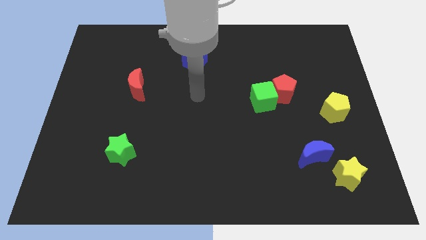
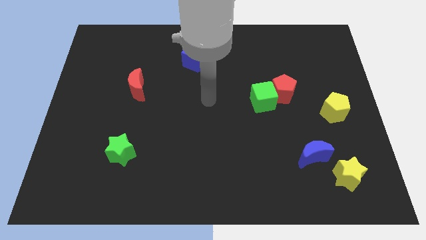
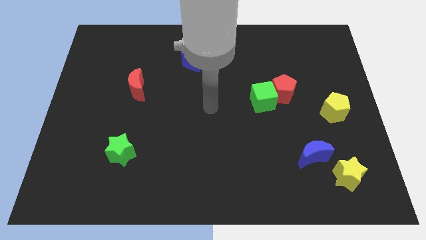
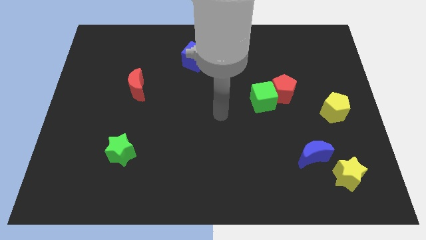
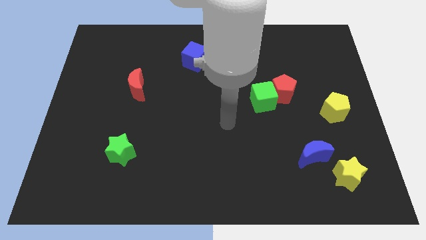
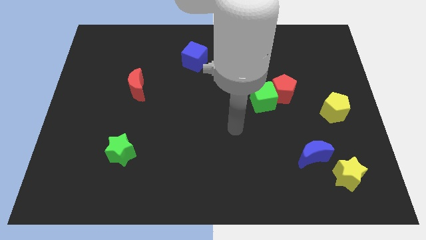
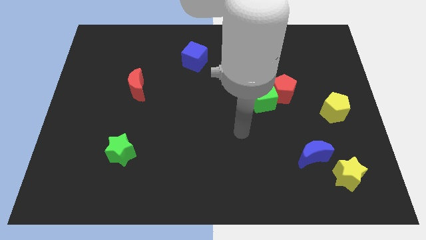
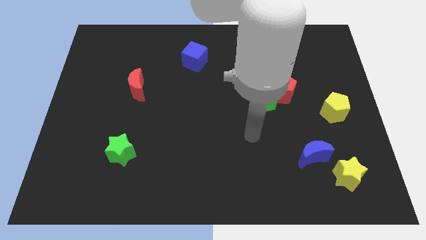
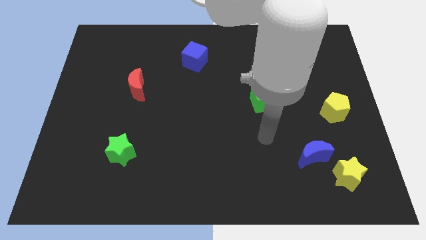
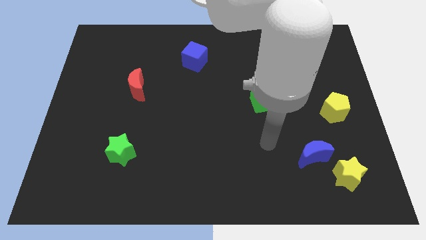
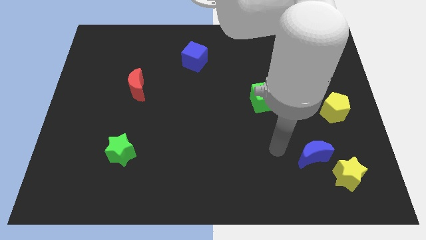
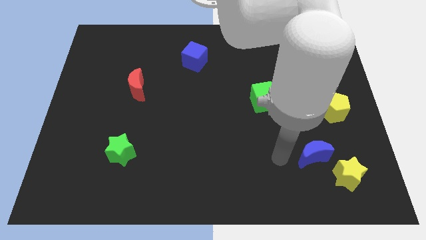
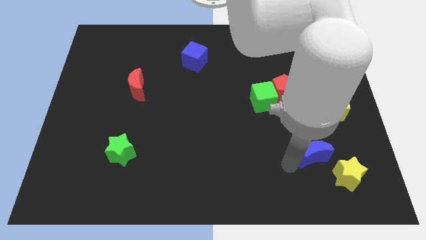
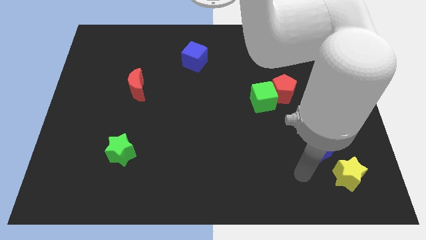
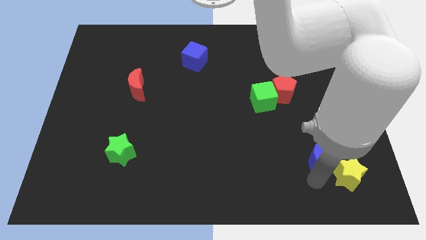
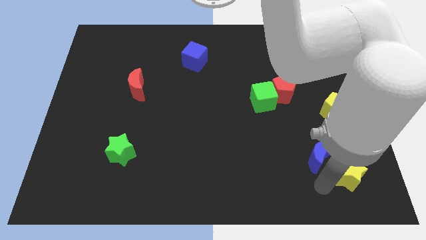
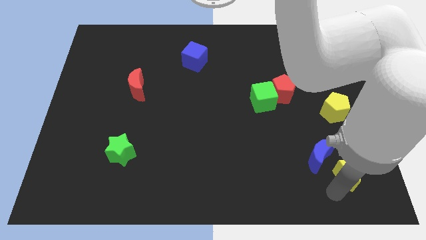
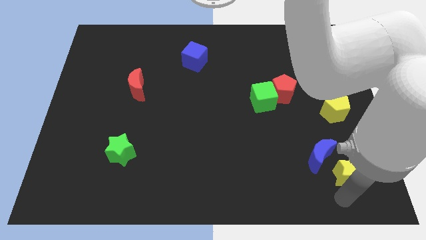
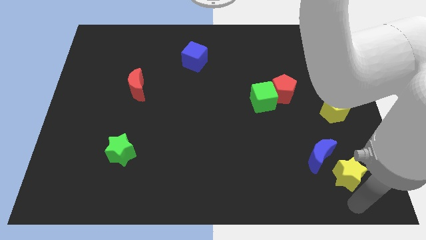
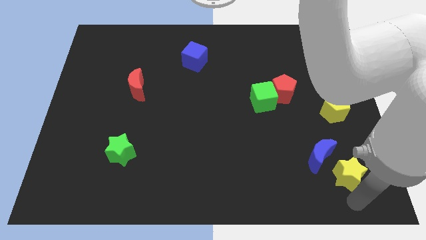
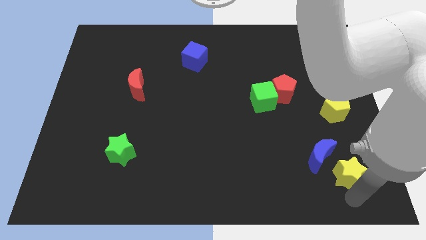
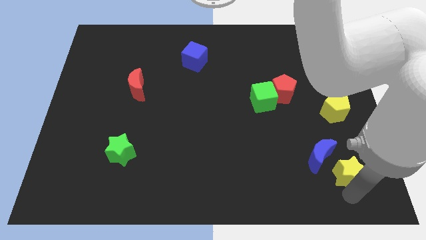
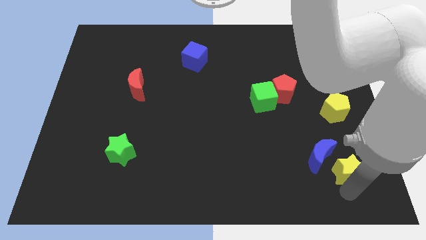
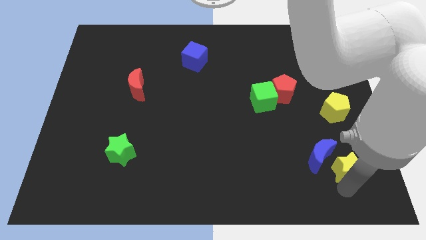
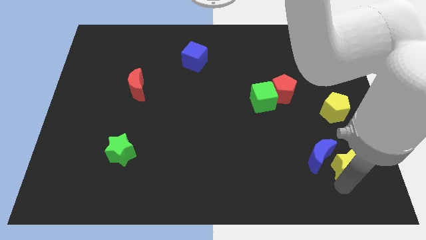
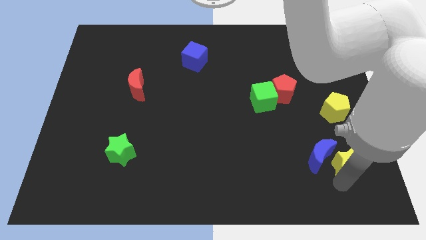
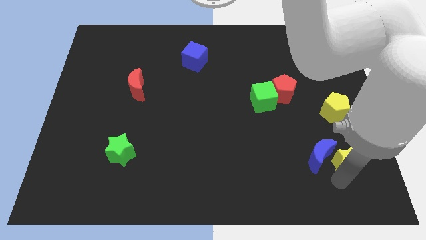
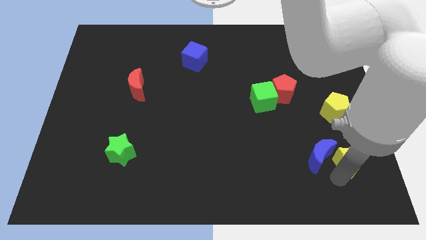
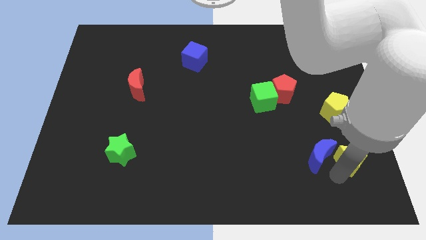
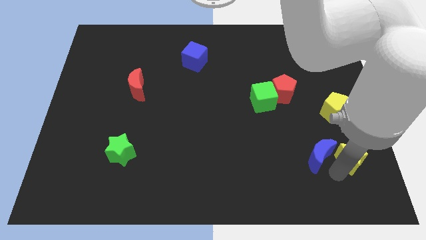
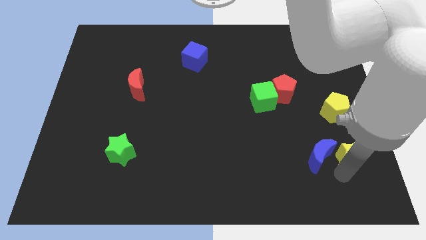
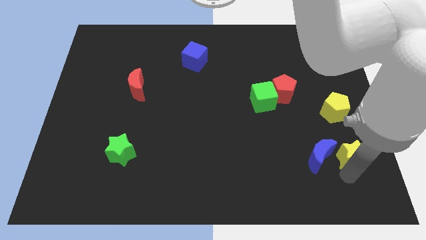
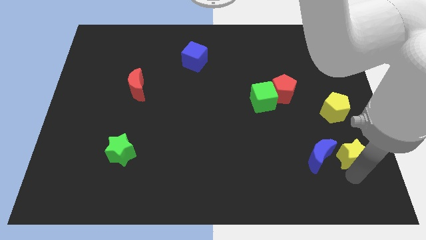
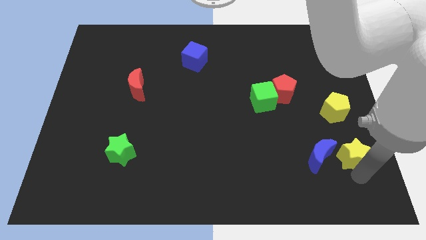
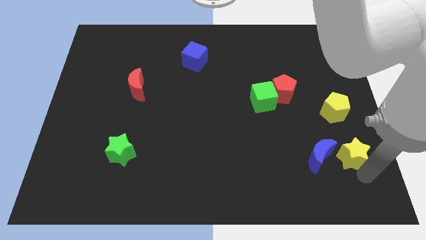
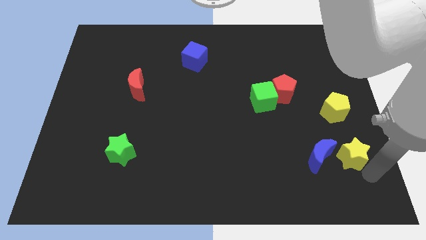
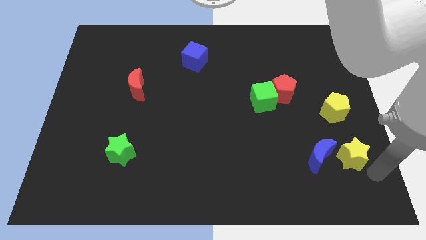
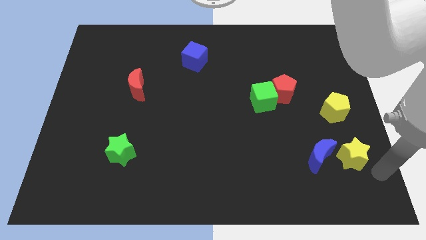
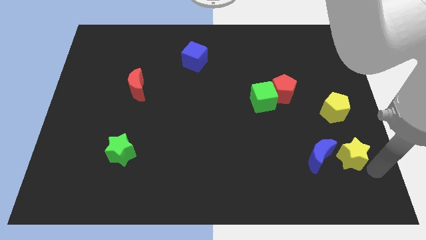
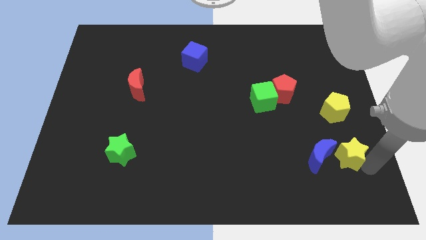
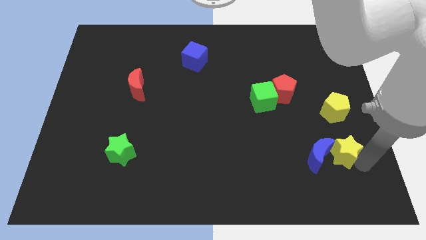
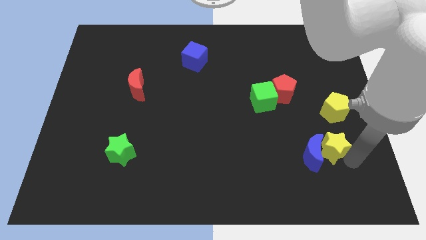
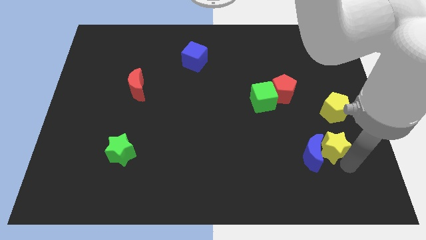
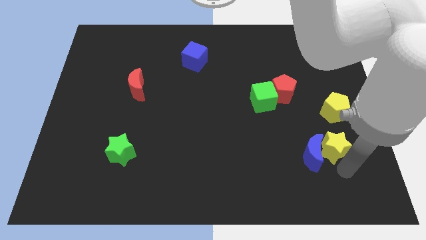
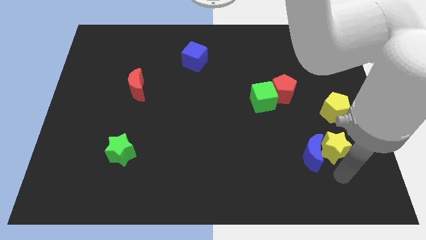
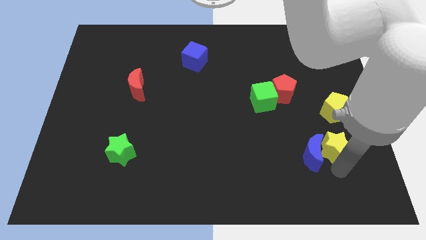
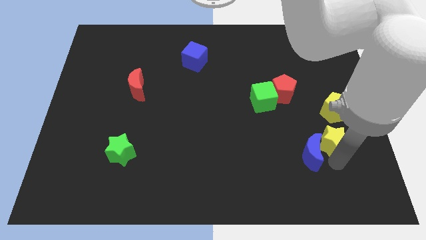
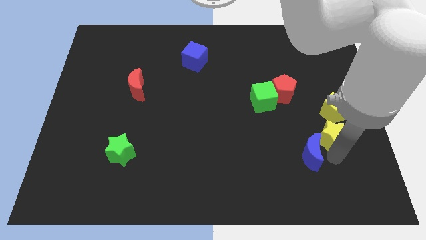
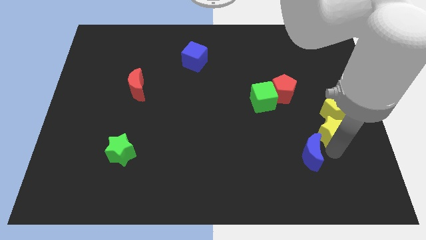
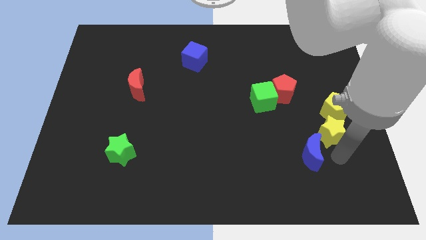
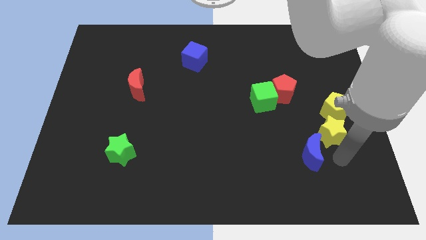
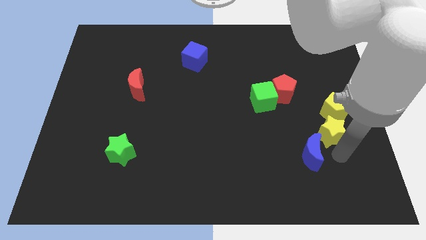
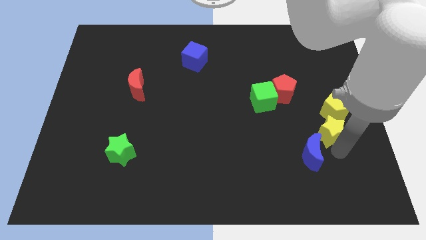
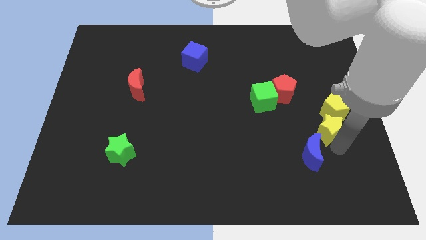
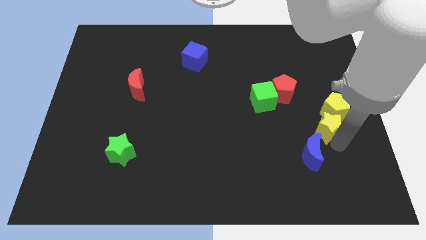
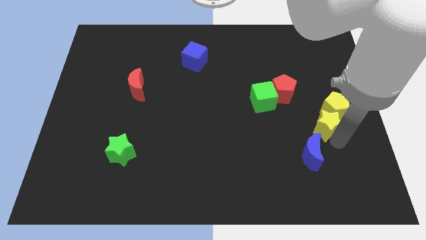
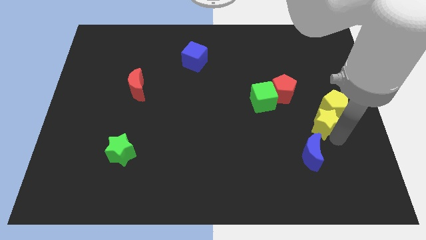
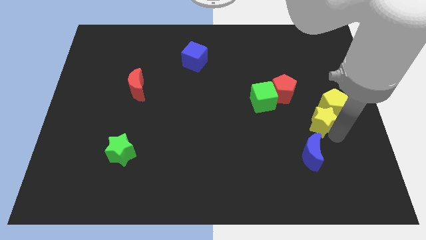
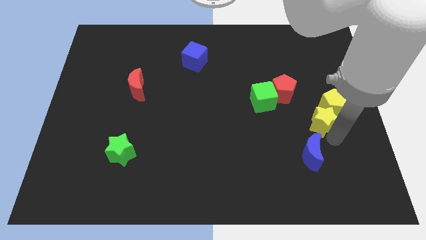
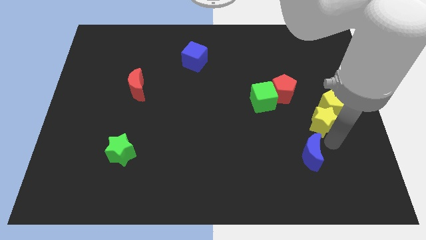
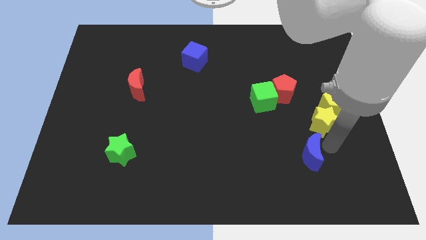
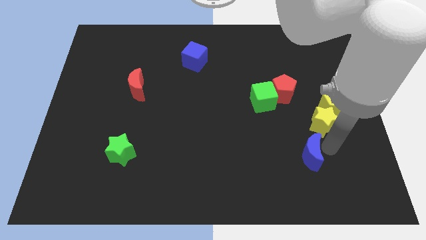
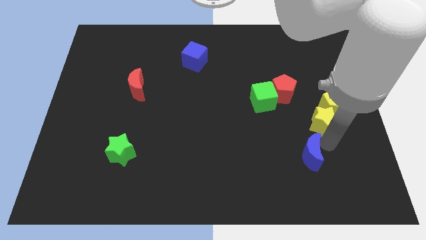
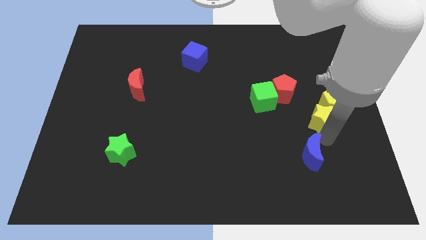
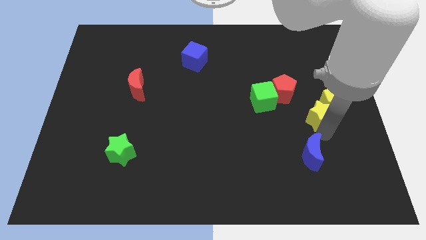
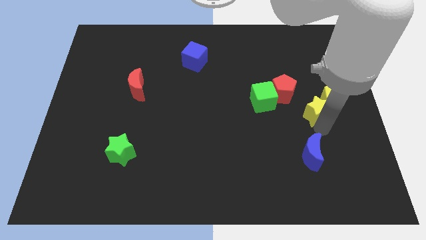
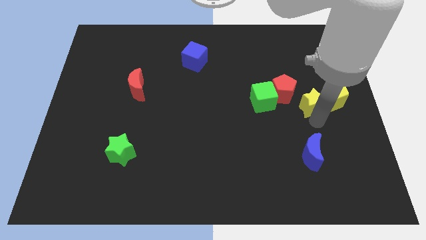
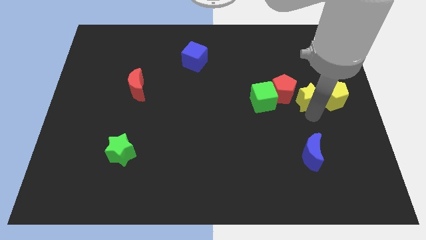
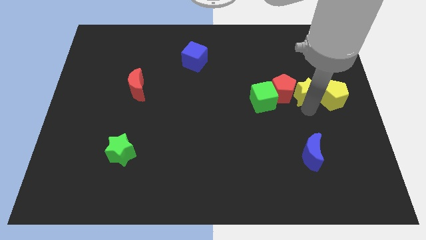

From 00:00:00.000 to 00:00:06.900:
push the yellow star upwards

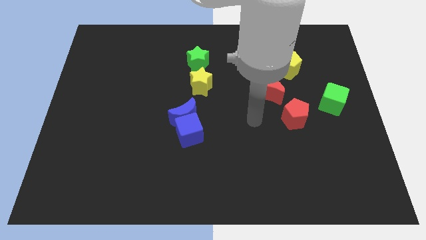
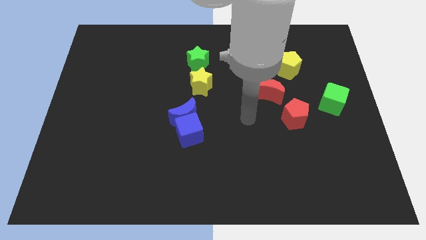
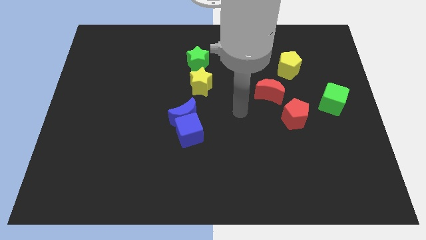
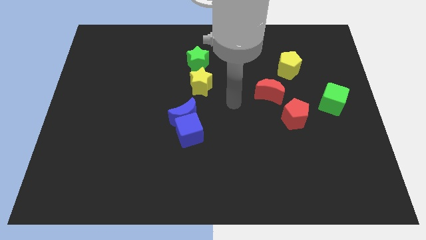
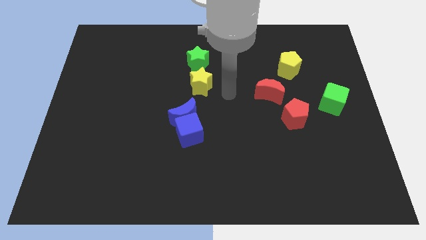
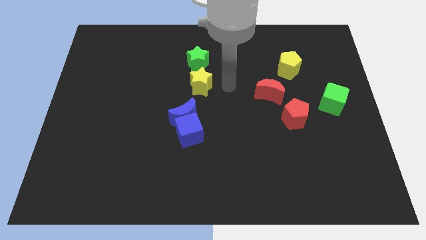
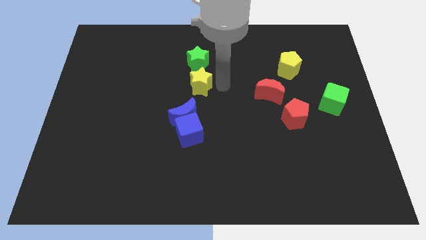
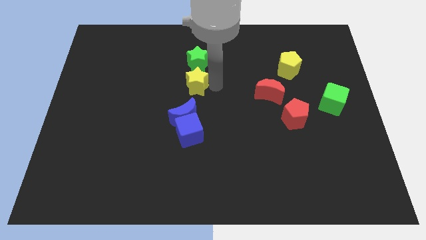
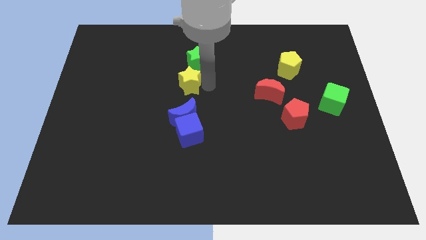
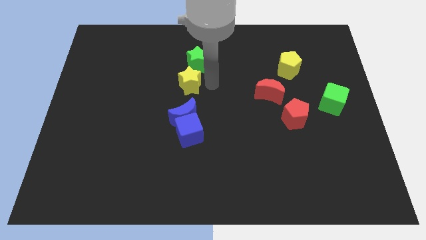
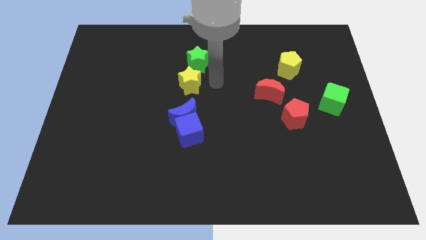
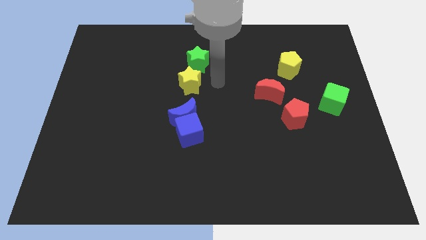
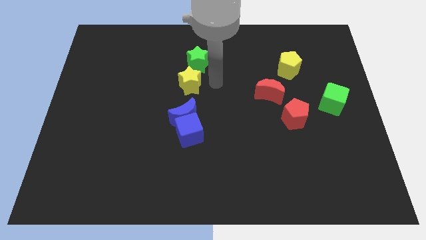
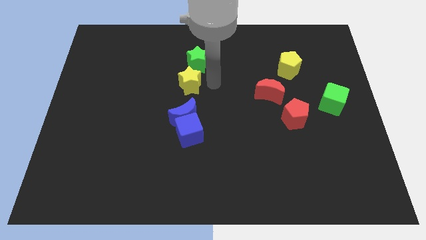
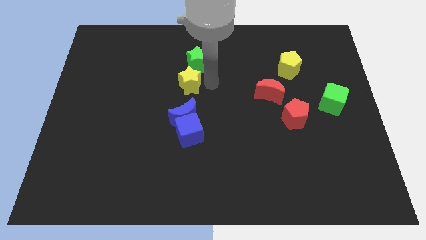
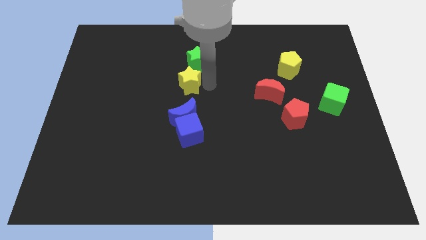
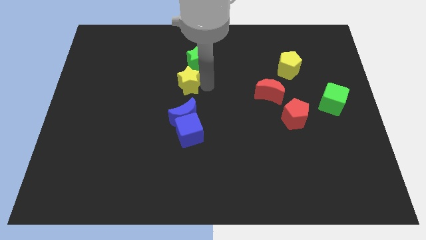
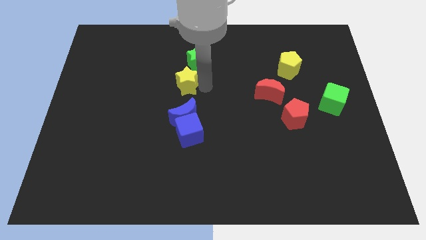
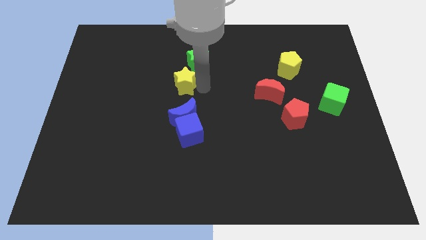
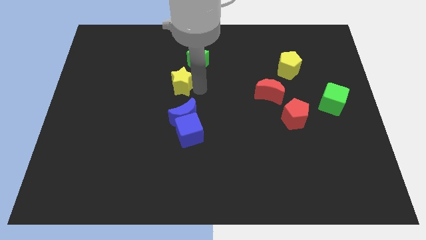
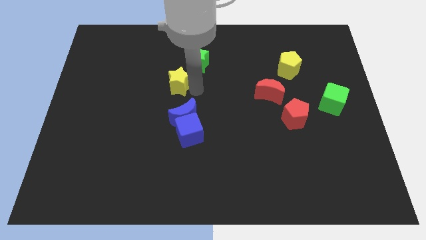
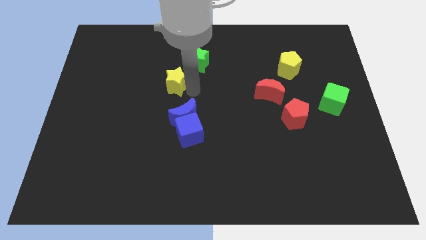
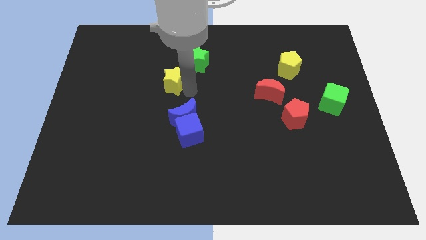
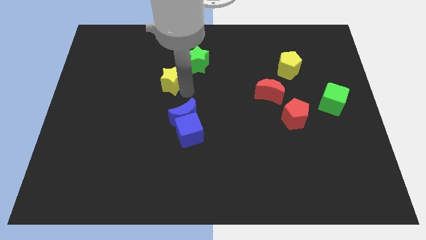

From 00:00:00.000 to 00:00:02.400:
slide the yellow star left somewhat
